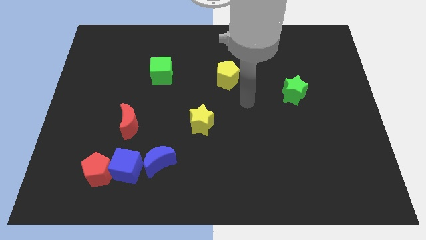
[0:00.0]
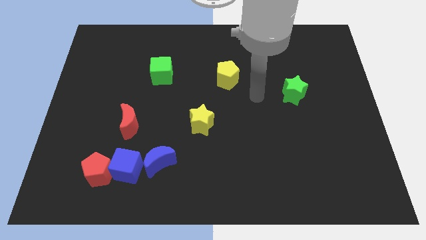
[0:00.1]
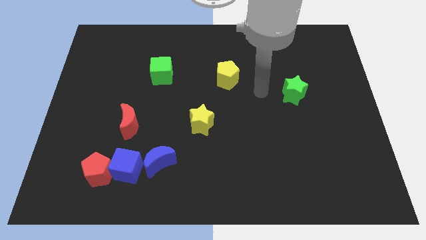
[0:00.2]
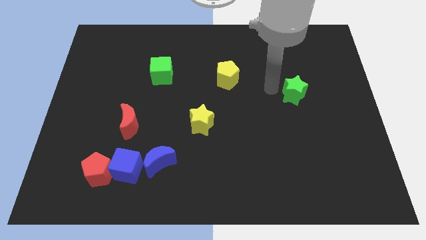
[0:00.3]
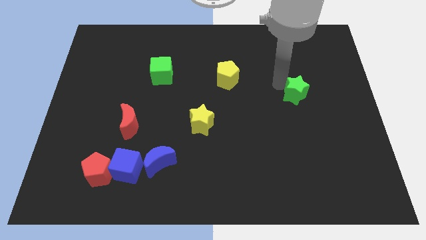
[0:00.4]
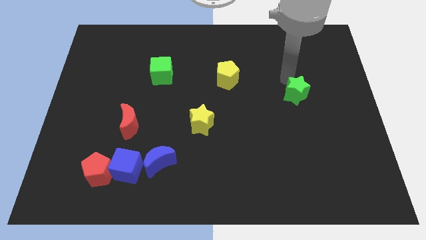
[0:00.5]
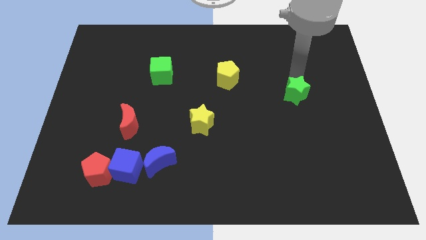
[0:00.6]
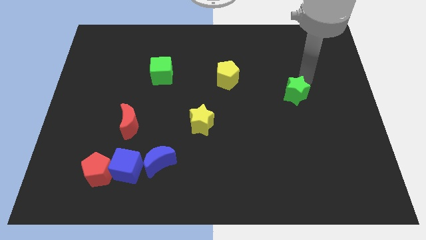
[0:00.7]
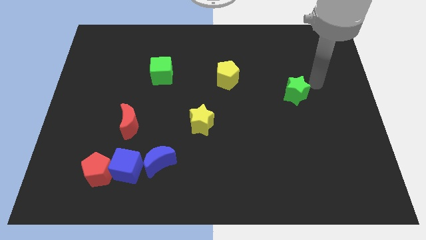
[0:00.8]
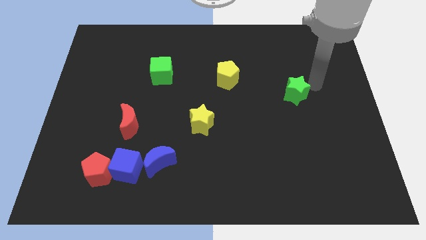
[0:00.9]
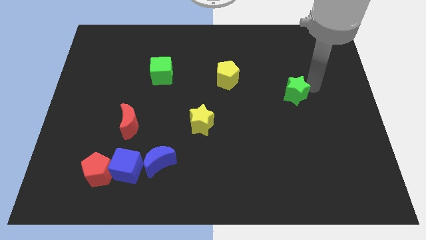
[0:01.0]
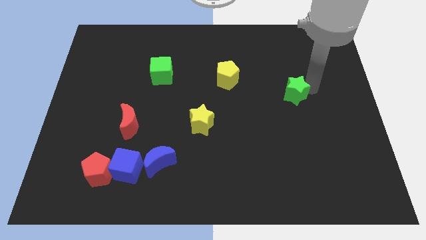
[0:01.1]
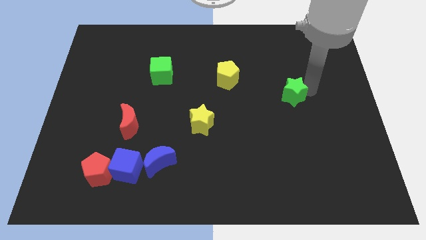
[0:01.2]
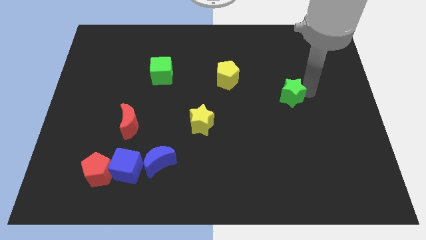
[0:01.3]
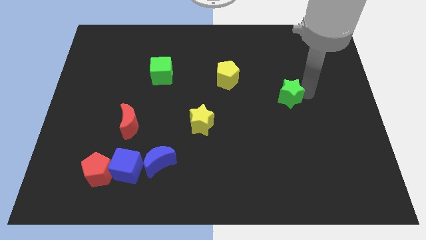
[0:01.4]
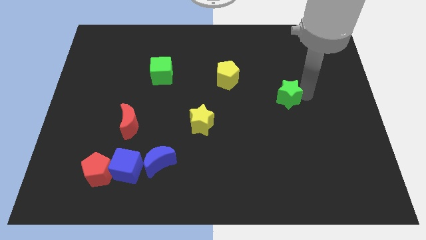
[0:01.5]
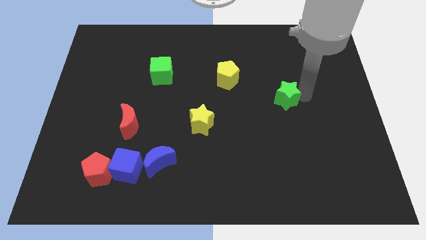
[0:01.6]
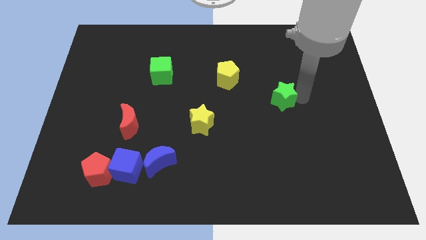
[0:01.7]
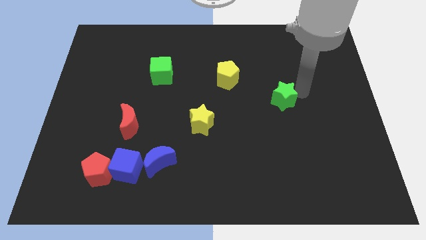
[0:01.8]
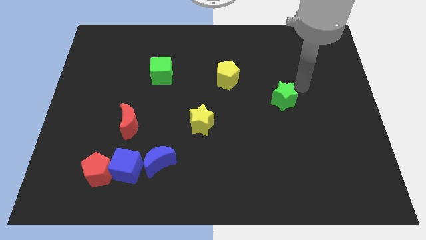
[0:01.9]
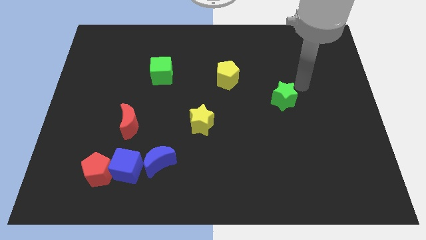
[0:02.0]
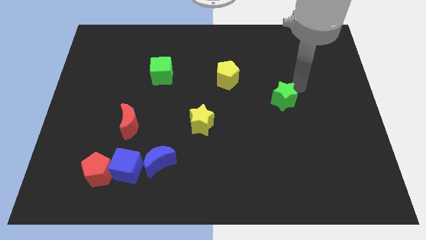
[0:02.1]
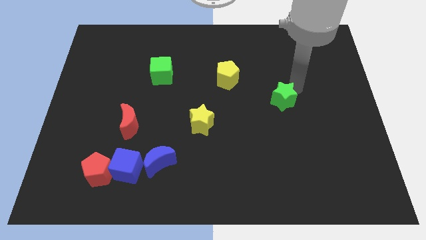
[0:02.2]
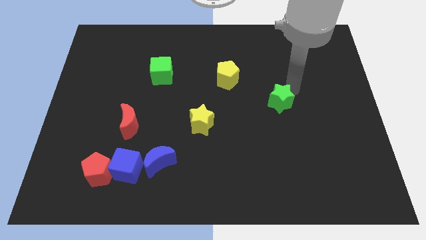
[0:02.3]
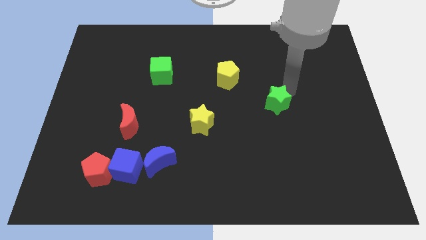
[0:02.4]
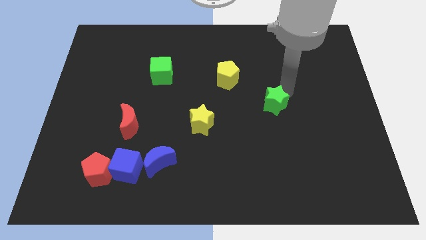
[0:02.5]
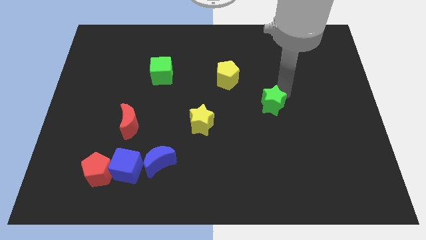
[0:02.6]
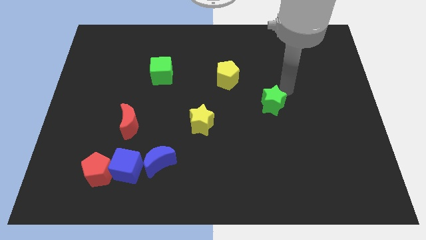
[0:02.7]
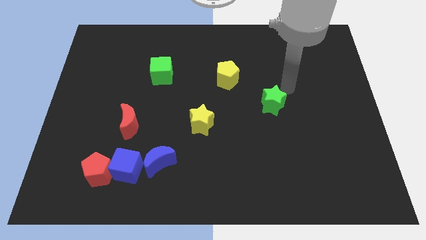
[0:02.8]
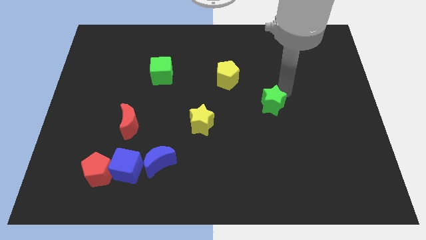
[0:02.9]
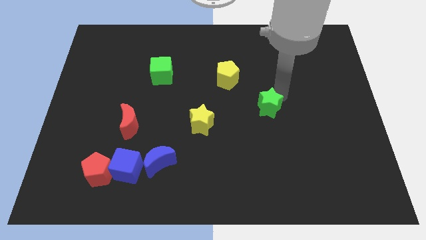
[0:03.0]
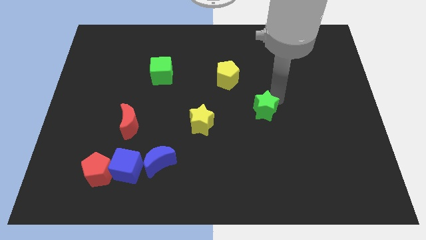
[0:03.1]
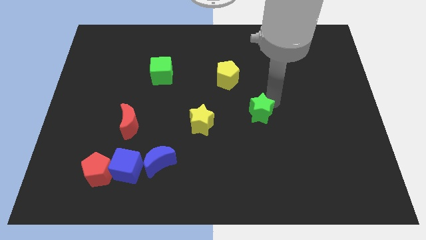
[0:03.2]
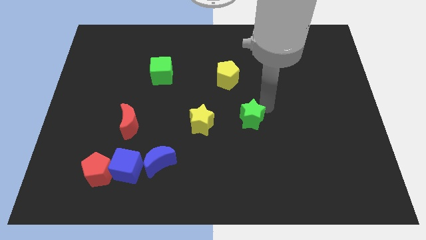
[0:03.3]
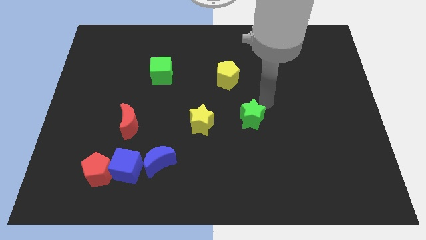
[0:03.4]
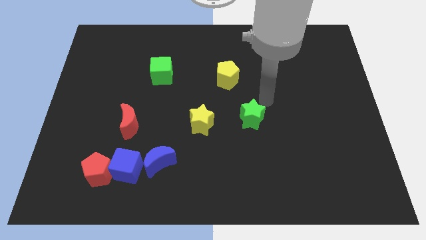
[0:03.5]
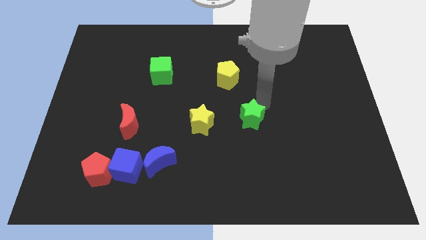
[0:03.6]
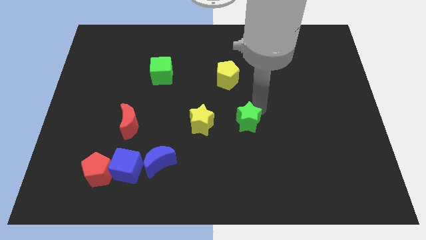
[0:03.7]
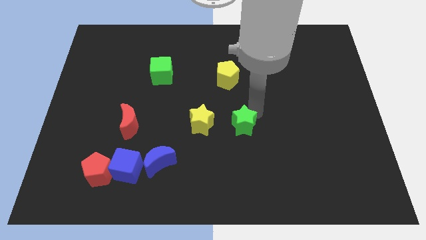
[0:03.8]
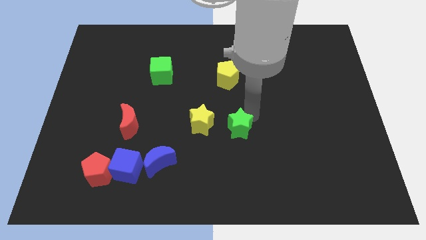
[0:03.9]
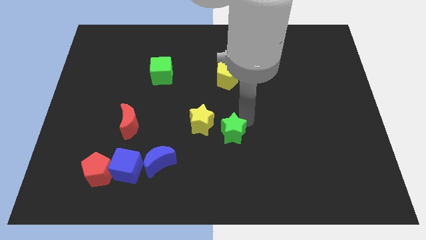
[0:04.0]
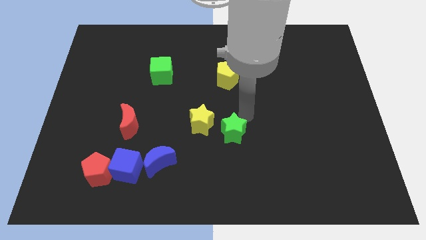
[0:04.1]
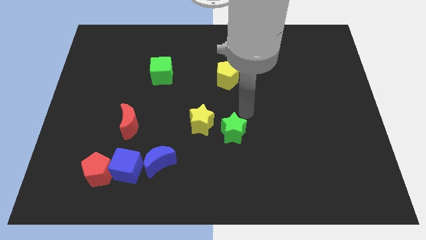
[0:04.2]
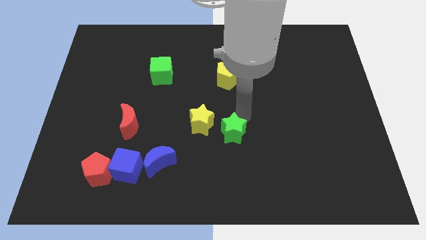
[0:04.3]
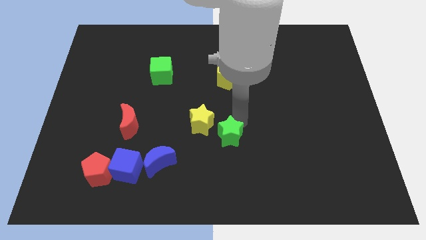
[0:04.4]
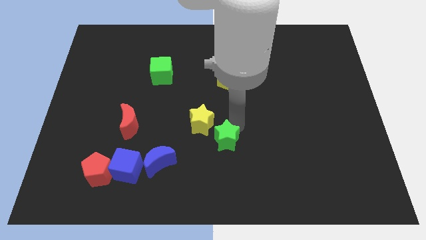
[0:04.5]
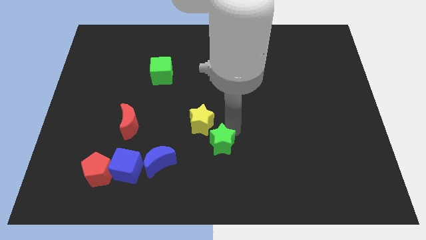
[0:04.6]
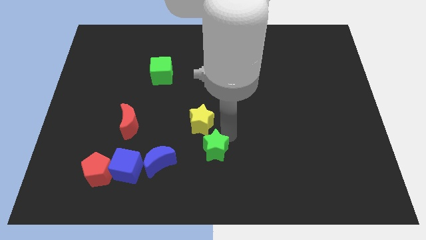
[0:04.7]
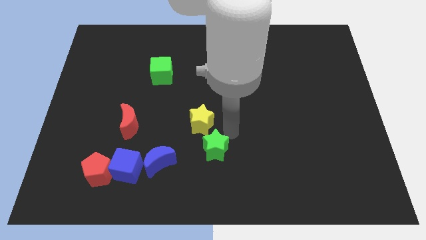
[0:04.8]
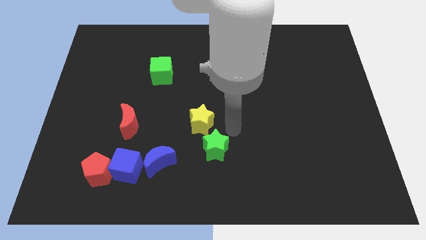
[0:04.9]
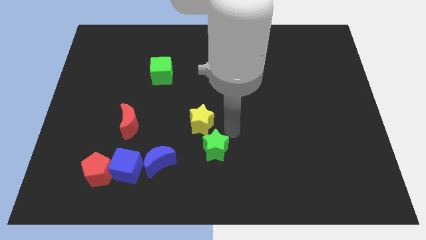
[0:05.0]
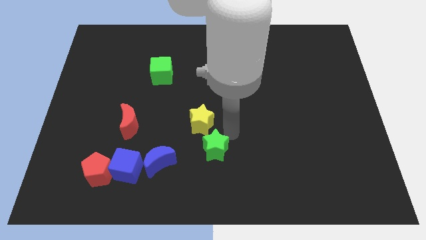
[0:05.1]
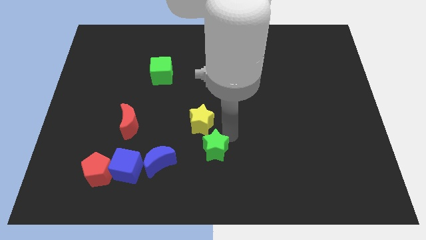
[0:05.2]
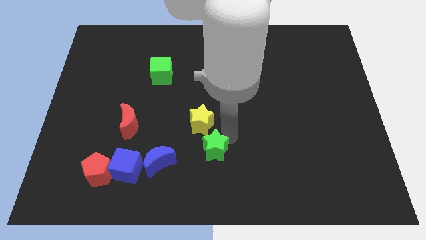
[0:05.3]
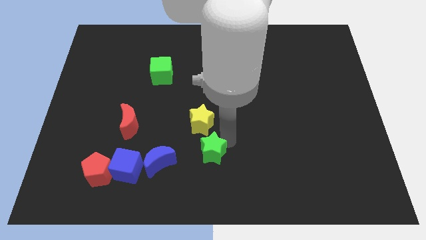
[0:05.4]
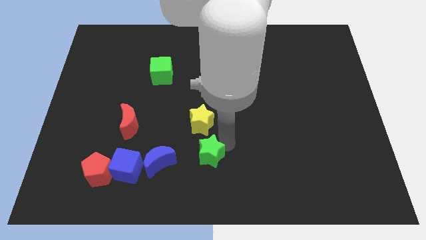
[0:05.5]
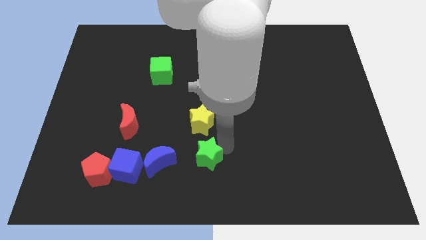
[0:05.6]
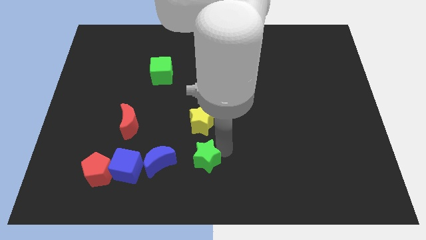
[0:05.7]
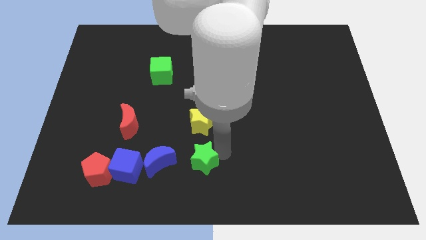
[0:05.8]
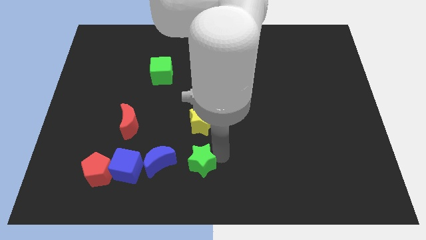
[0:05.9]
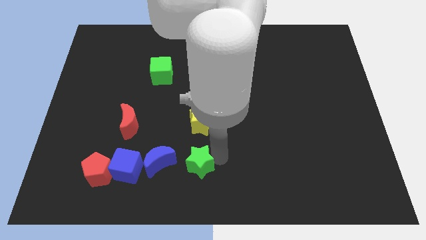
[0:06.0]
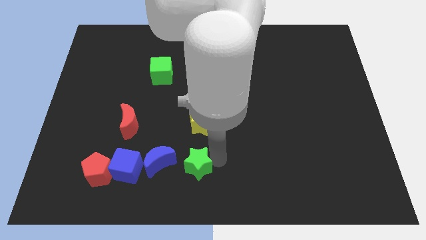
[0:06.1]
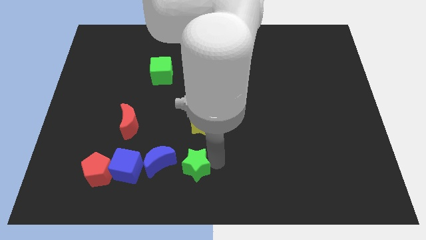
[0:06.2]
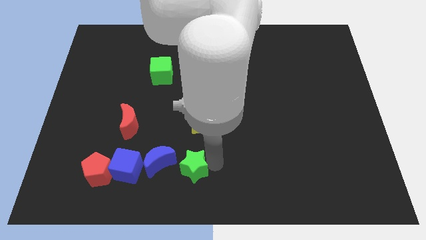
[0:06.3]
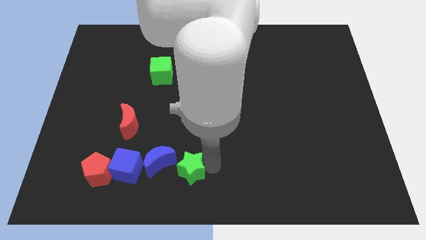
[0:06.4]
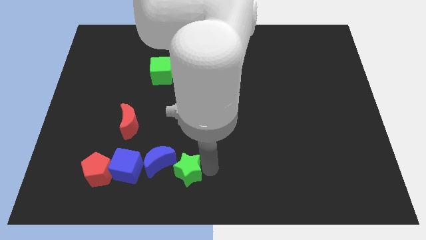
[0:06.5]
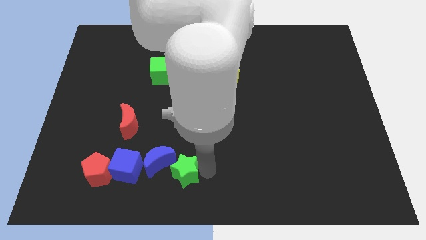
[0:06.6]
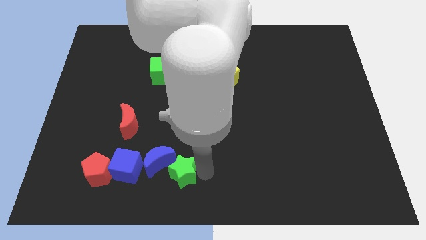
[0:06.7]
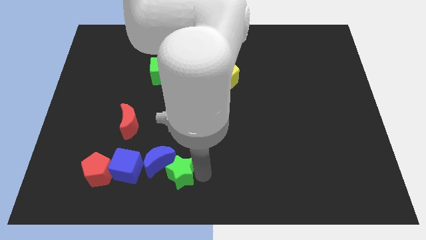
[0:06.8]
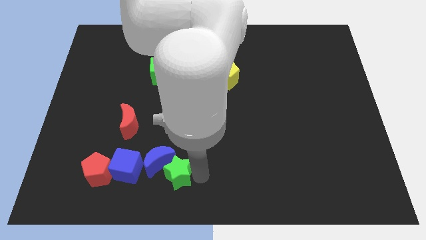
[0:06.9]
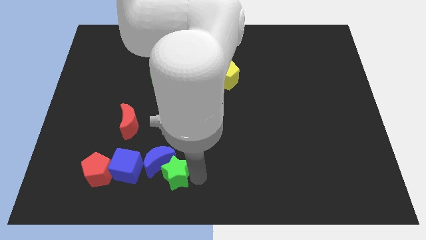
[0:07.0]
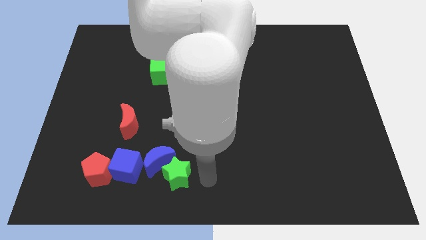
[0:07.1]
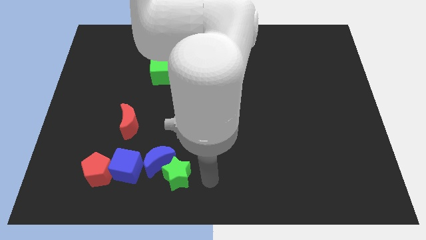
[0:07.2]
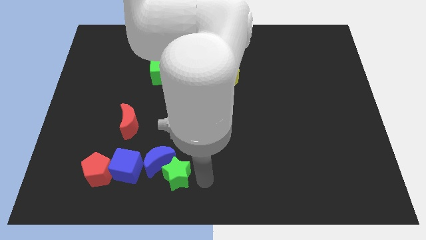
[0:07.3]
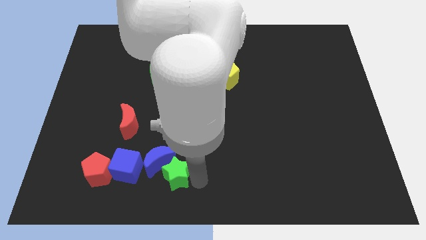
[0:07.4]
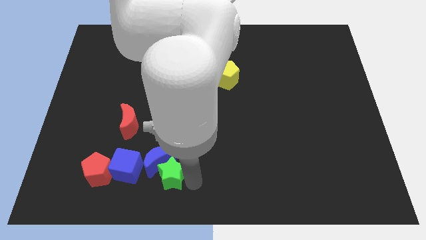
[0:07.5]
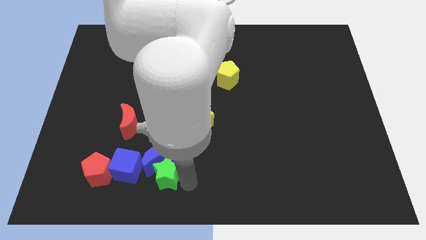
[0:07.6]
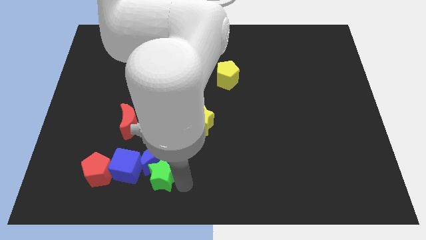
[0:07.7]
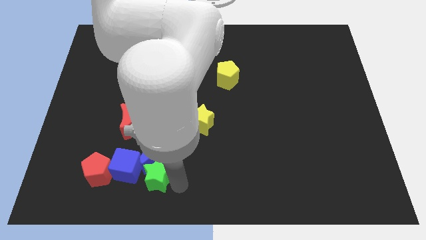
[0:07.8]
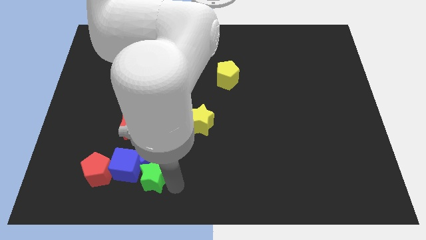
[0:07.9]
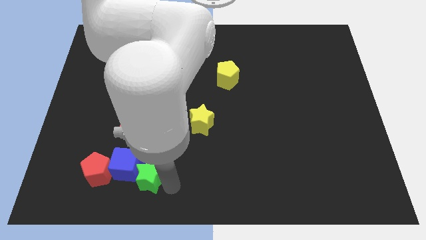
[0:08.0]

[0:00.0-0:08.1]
push the green star towards the blue cube
